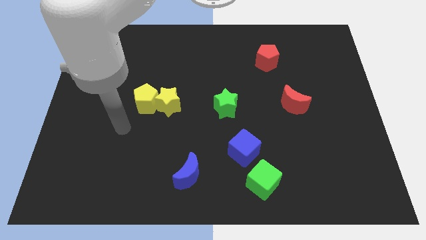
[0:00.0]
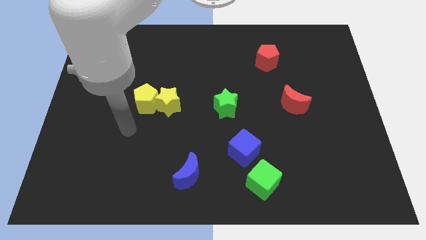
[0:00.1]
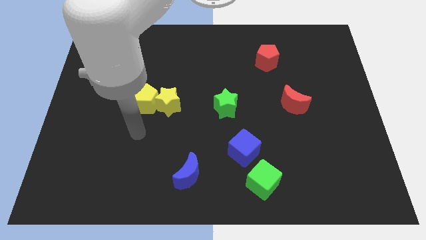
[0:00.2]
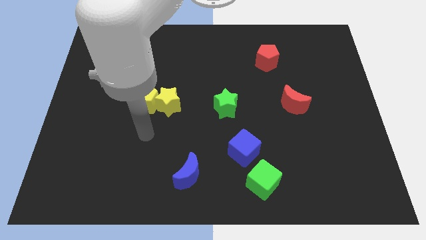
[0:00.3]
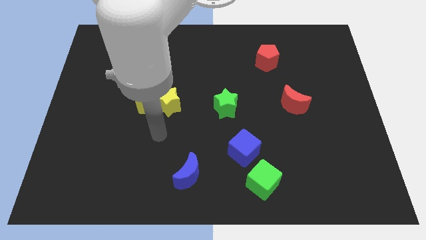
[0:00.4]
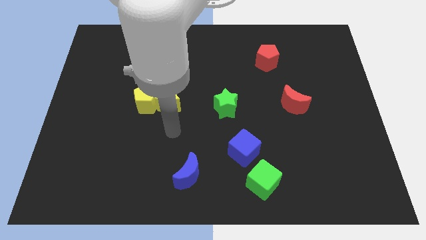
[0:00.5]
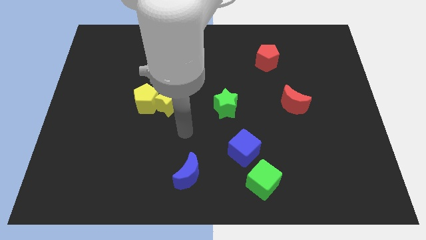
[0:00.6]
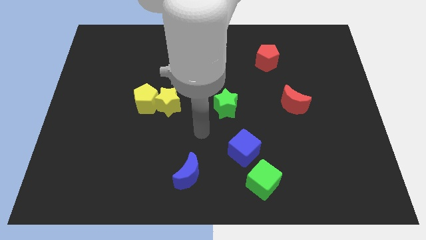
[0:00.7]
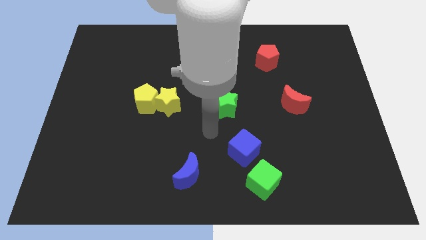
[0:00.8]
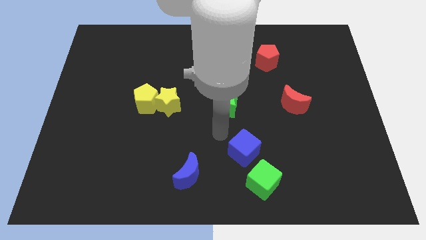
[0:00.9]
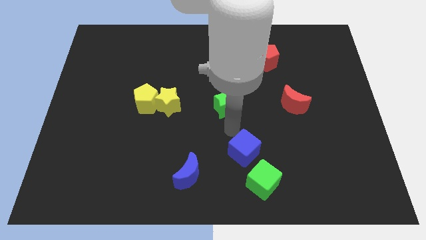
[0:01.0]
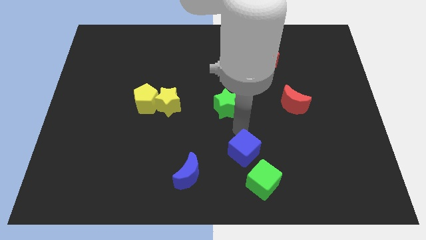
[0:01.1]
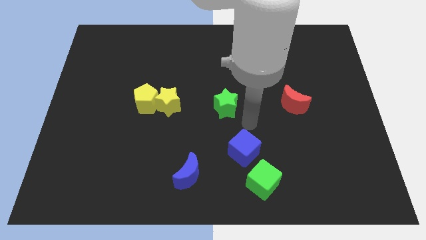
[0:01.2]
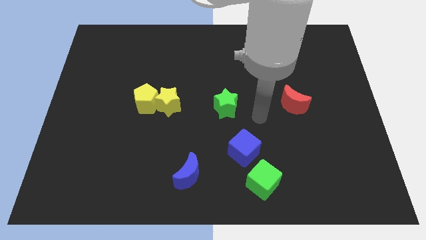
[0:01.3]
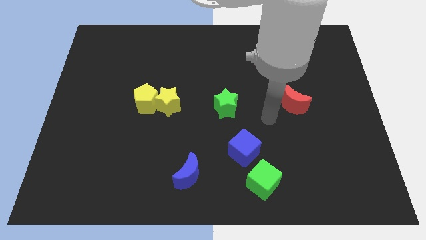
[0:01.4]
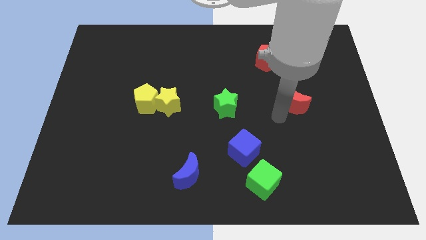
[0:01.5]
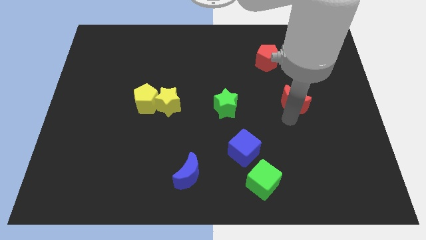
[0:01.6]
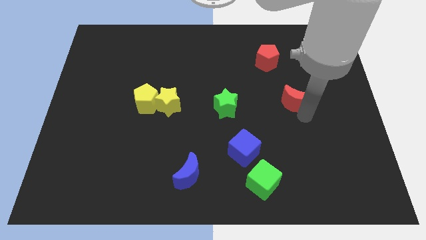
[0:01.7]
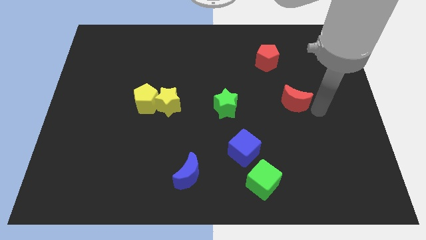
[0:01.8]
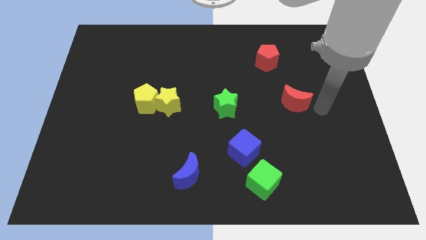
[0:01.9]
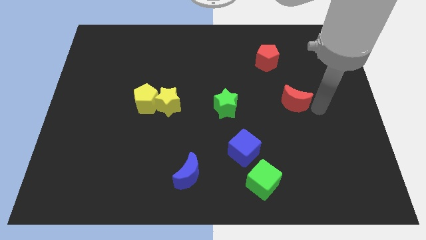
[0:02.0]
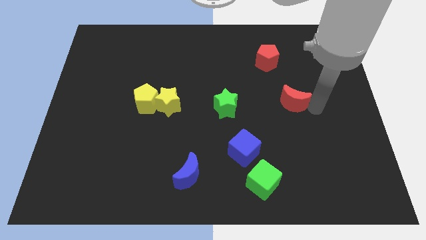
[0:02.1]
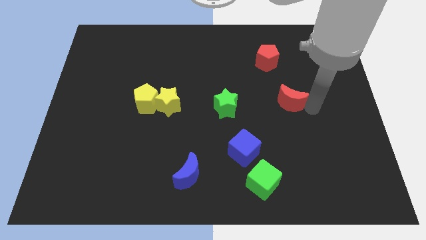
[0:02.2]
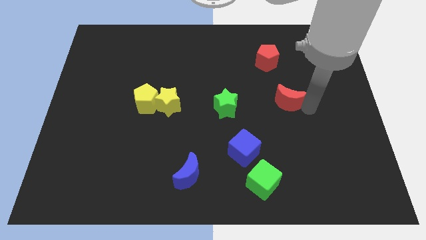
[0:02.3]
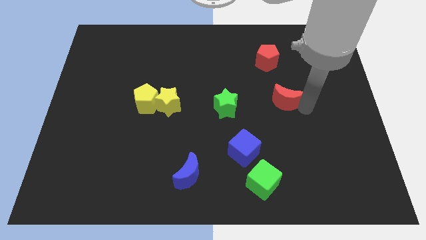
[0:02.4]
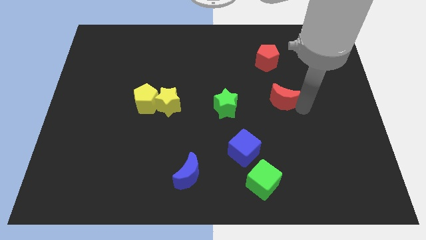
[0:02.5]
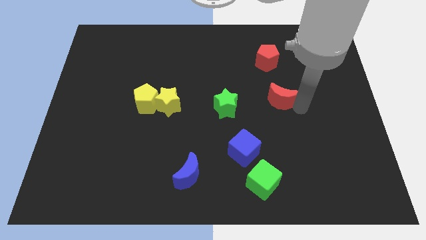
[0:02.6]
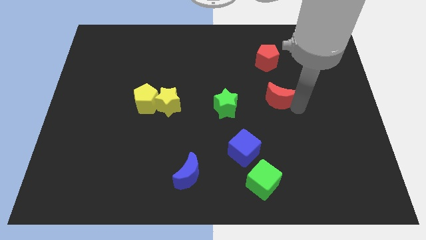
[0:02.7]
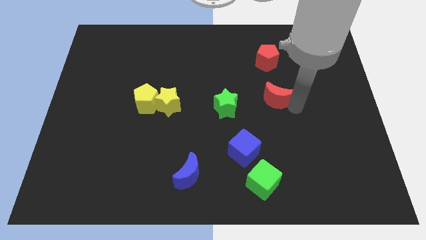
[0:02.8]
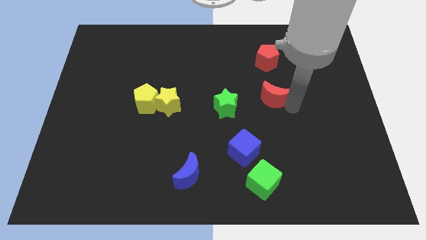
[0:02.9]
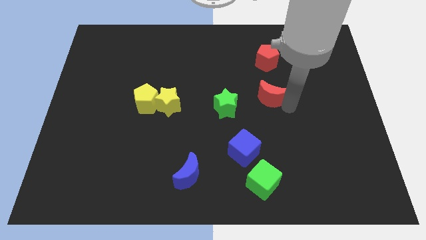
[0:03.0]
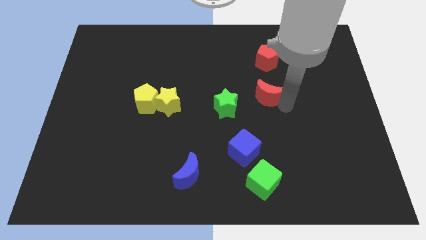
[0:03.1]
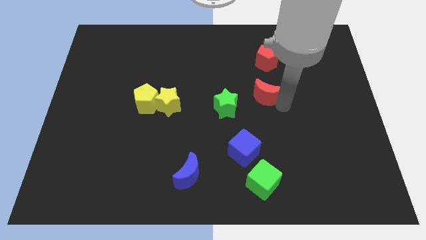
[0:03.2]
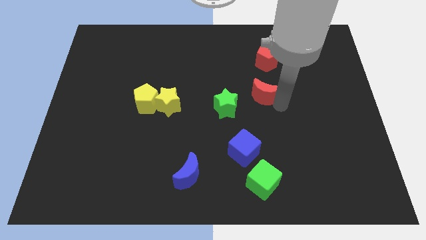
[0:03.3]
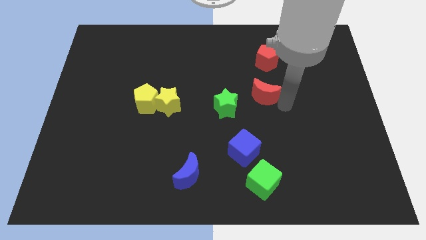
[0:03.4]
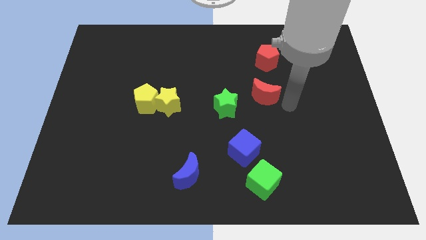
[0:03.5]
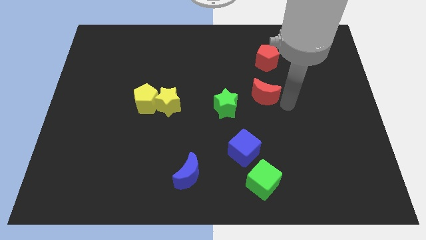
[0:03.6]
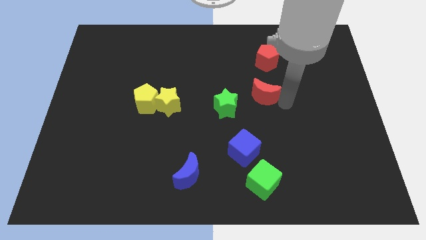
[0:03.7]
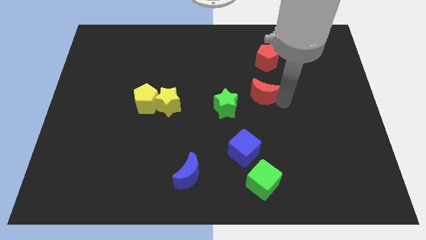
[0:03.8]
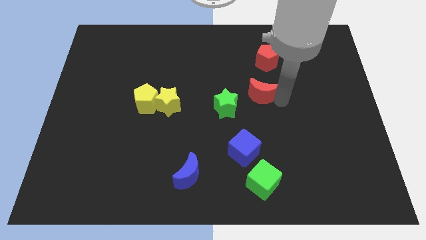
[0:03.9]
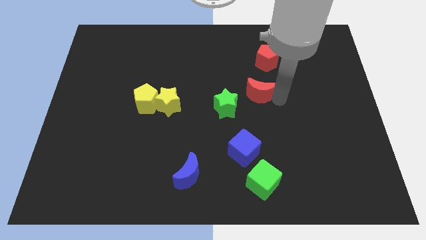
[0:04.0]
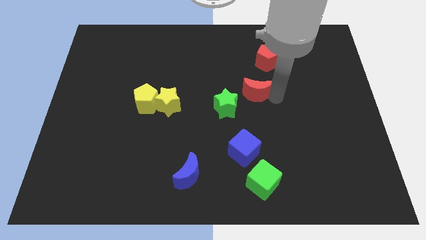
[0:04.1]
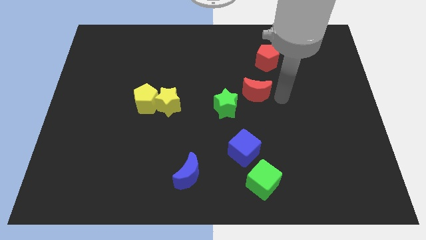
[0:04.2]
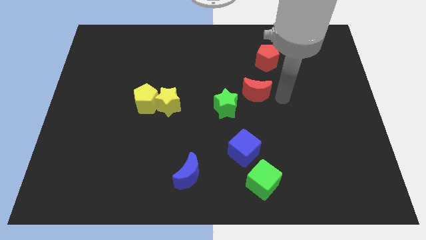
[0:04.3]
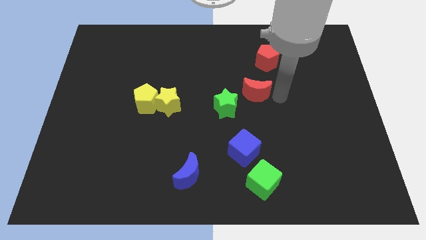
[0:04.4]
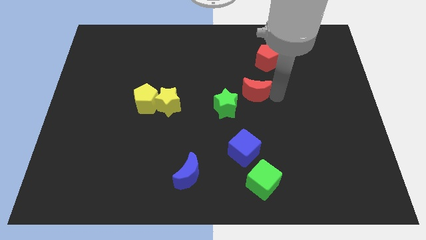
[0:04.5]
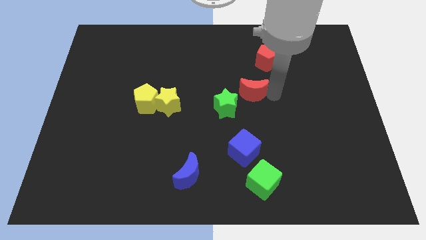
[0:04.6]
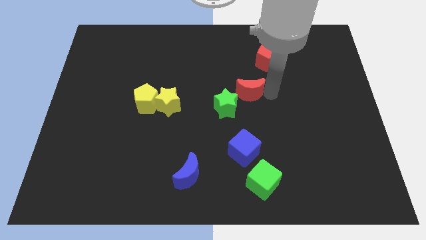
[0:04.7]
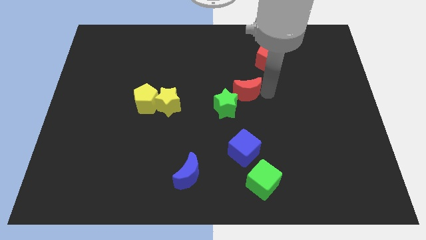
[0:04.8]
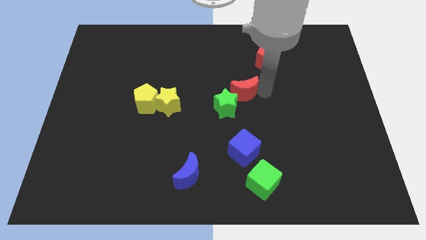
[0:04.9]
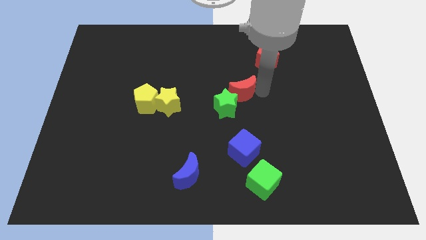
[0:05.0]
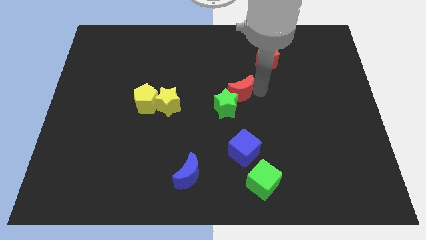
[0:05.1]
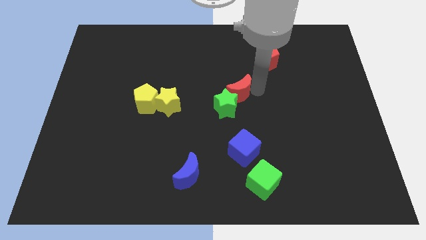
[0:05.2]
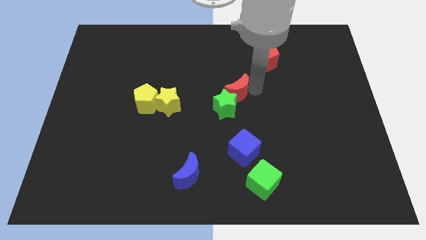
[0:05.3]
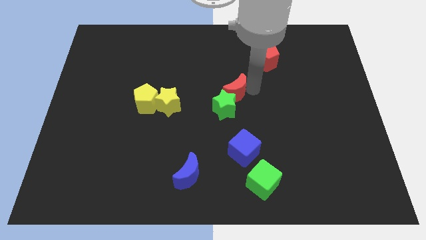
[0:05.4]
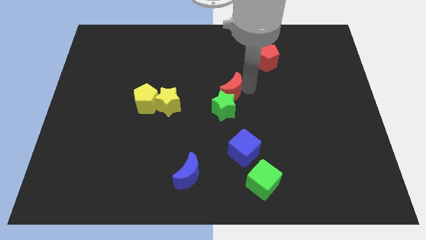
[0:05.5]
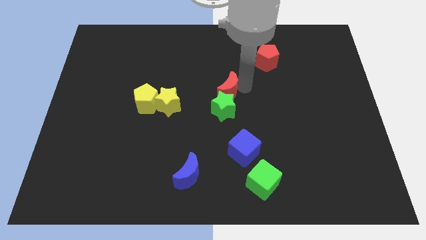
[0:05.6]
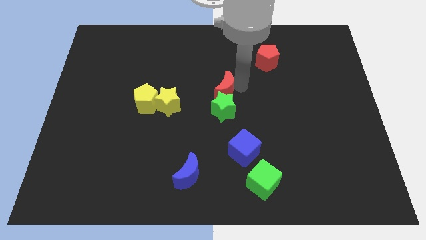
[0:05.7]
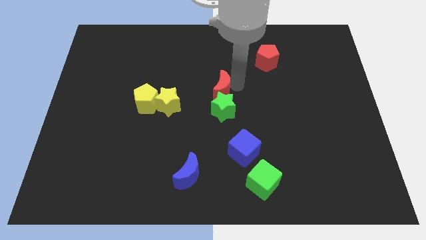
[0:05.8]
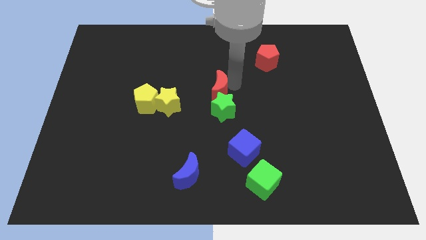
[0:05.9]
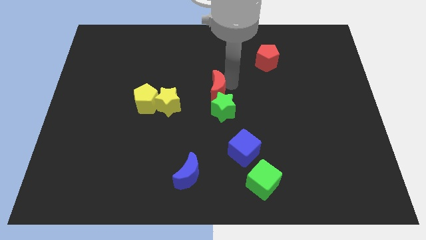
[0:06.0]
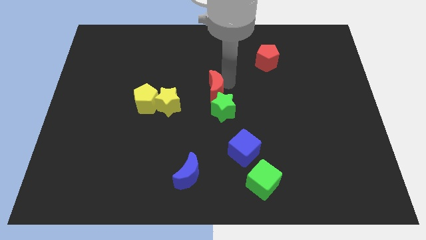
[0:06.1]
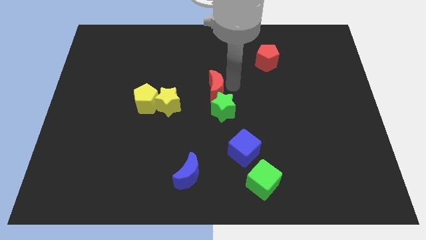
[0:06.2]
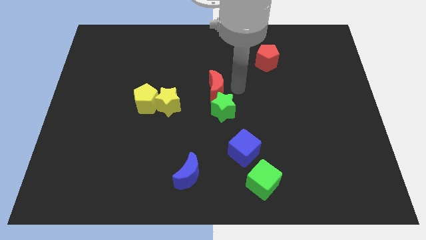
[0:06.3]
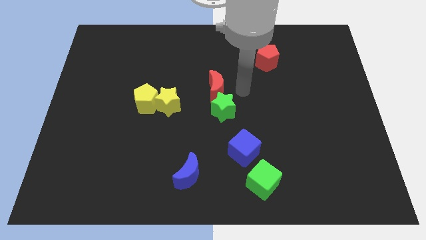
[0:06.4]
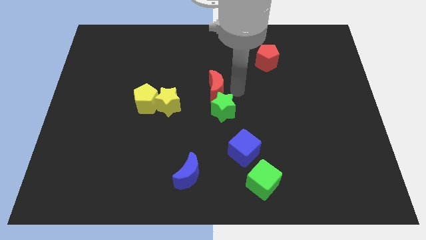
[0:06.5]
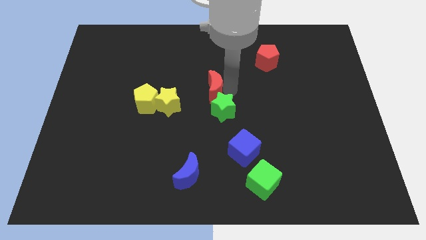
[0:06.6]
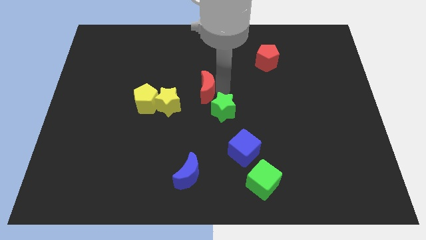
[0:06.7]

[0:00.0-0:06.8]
slide the red moon to the top right of the yellow star

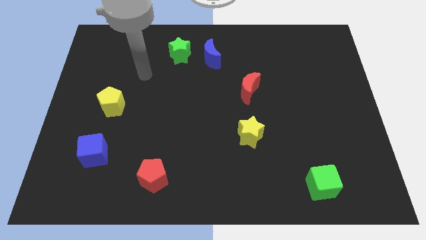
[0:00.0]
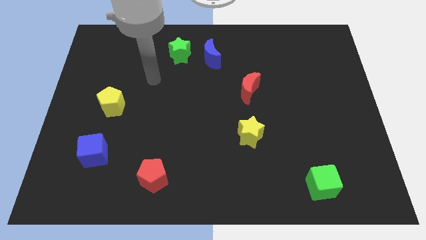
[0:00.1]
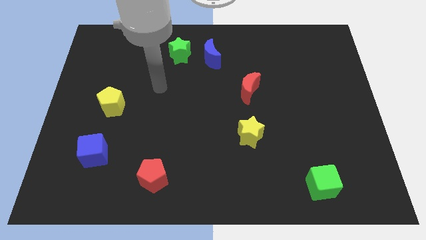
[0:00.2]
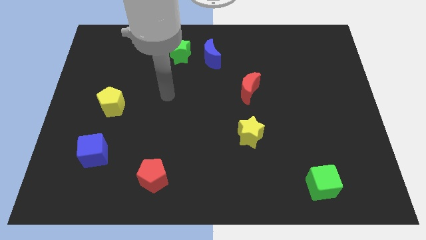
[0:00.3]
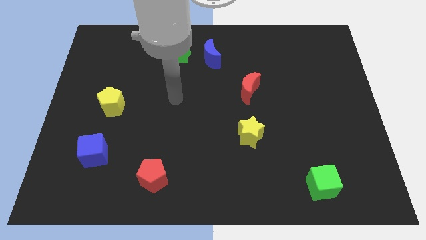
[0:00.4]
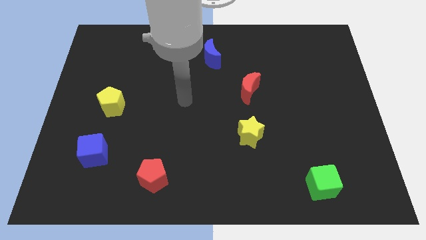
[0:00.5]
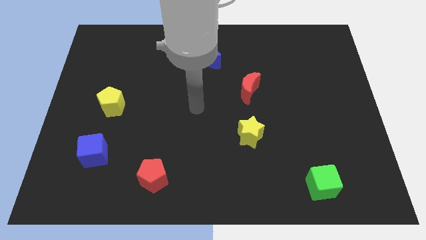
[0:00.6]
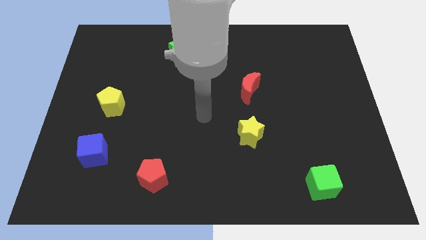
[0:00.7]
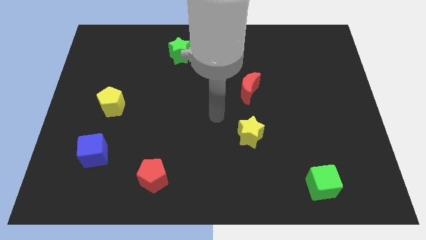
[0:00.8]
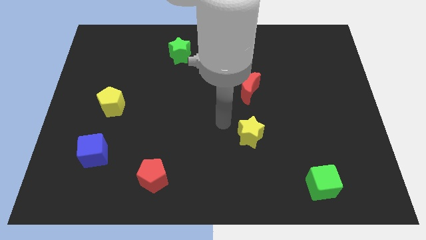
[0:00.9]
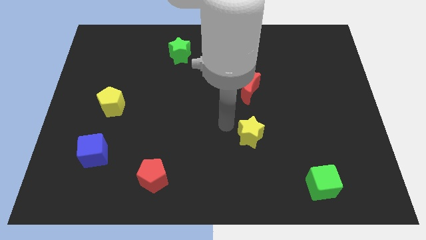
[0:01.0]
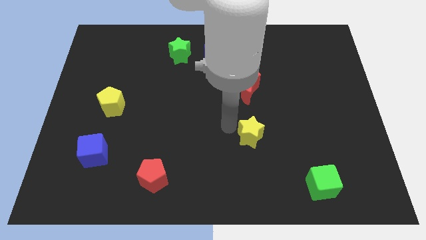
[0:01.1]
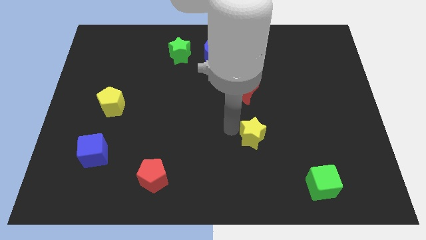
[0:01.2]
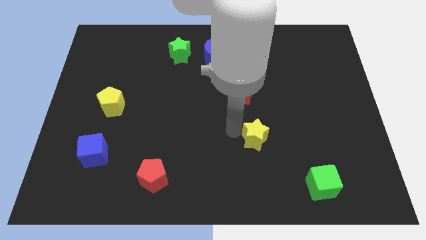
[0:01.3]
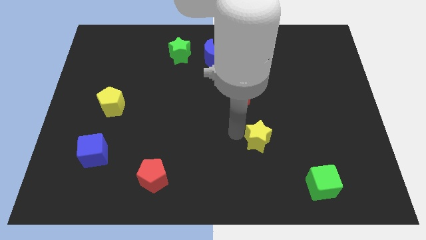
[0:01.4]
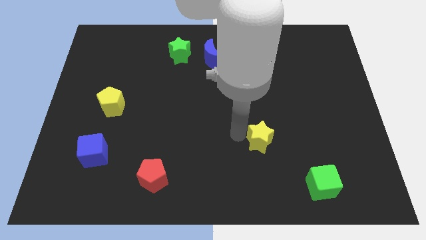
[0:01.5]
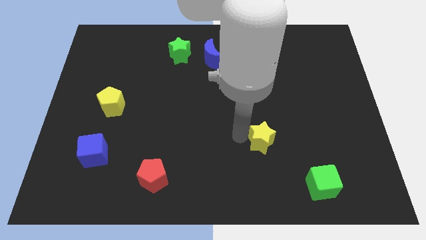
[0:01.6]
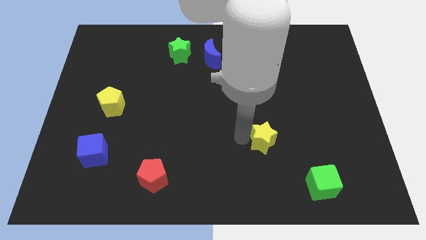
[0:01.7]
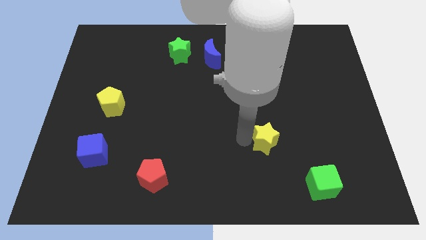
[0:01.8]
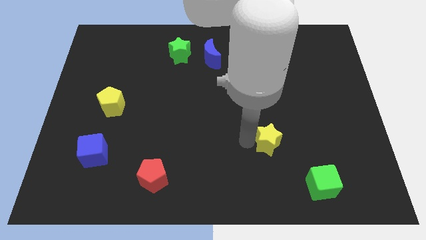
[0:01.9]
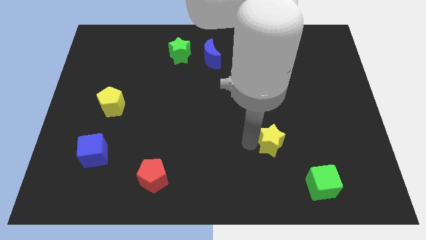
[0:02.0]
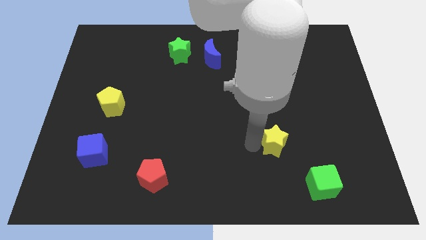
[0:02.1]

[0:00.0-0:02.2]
push the yellow star to the top left of the green cube
